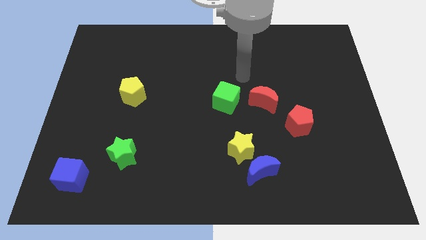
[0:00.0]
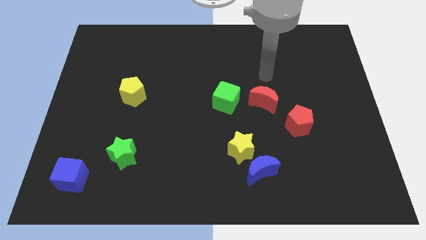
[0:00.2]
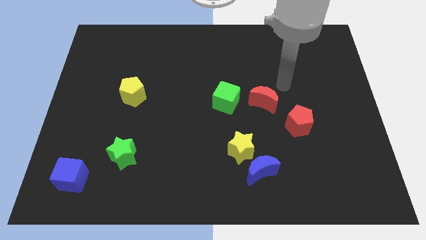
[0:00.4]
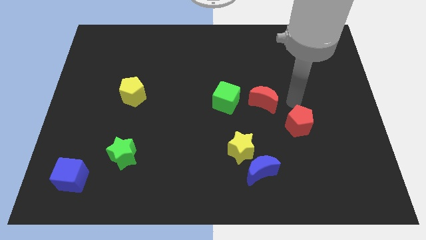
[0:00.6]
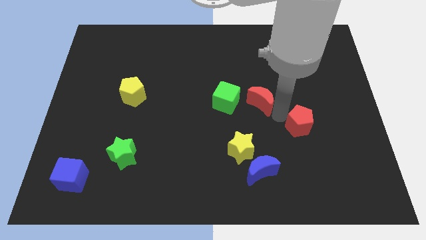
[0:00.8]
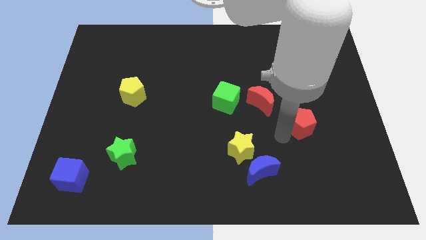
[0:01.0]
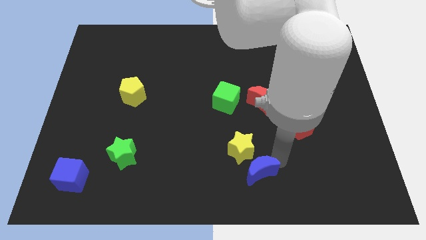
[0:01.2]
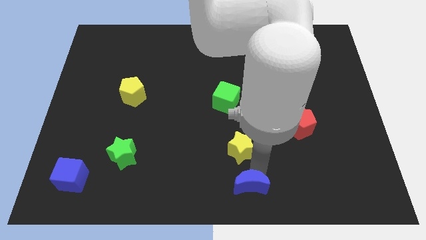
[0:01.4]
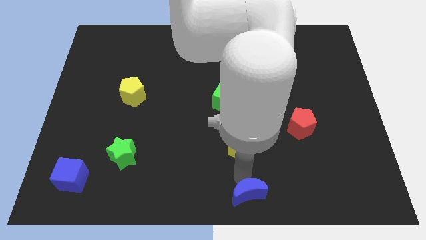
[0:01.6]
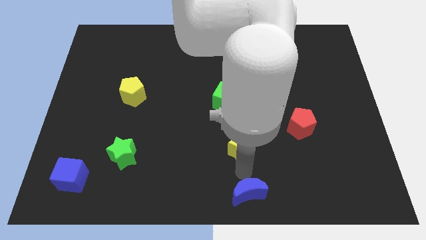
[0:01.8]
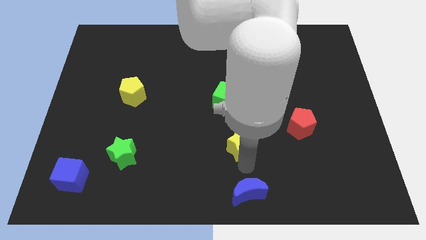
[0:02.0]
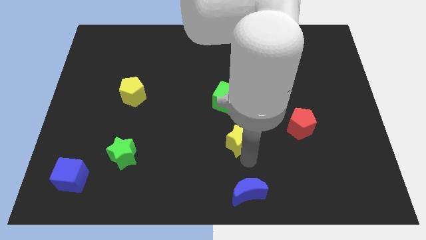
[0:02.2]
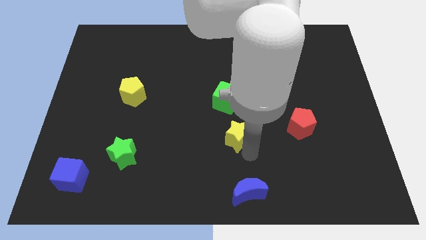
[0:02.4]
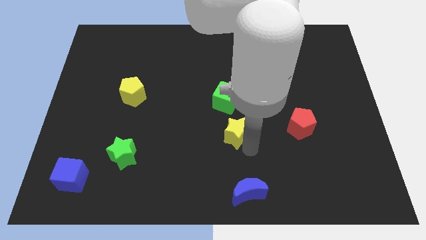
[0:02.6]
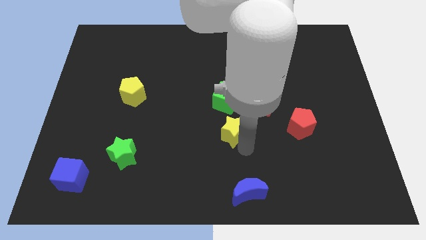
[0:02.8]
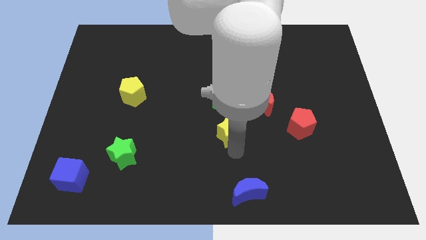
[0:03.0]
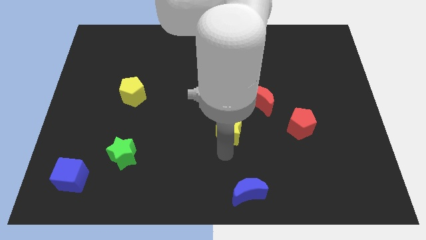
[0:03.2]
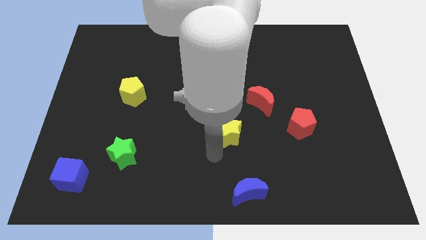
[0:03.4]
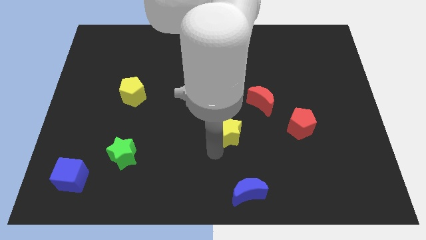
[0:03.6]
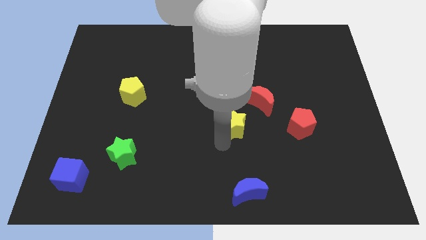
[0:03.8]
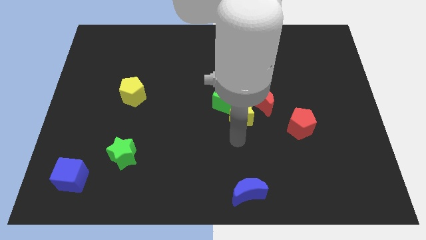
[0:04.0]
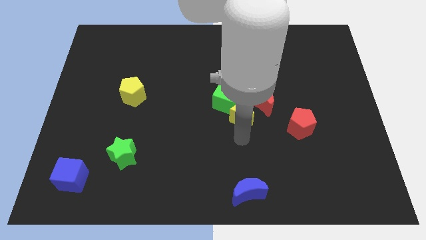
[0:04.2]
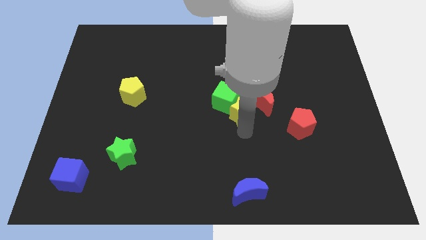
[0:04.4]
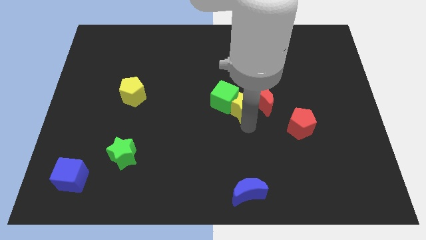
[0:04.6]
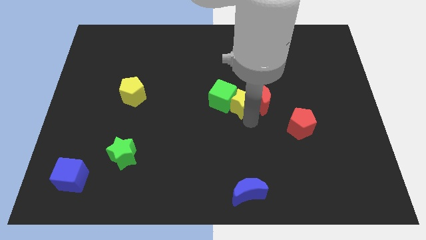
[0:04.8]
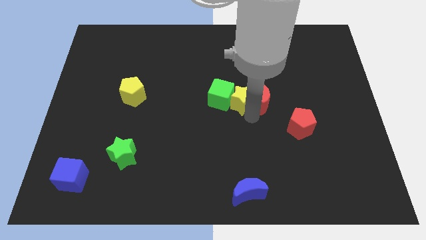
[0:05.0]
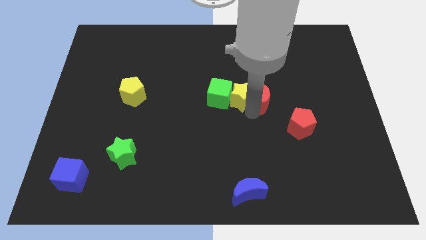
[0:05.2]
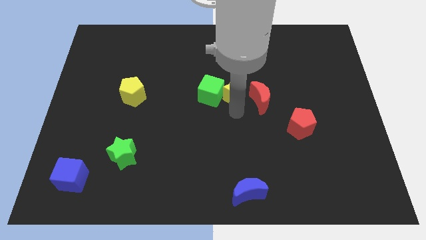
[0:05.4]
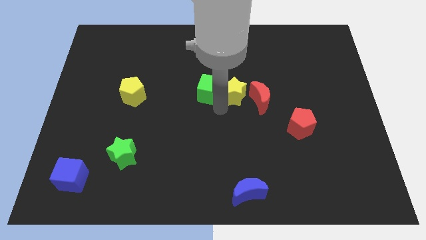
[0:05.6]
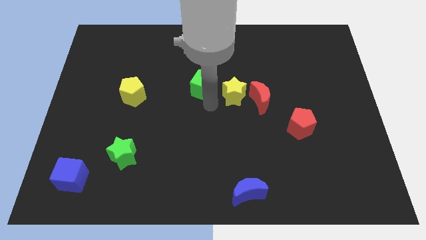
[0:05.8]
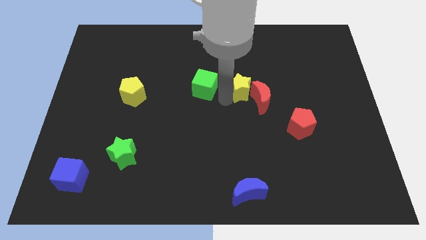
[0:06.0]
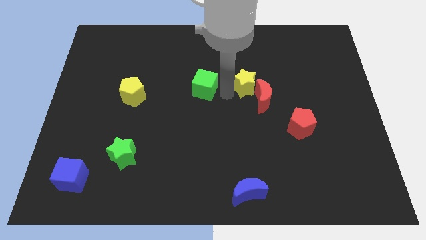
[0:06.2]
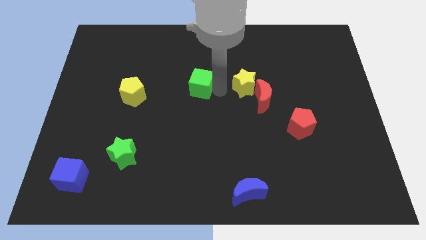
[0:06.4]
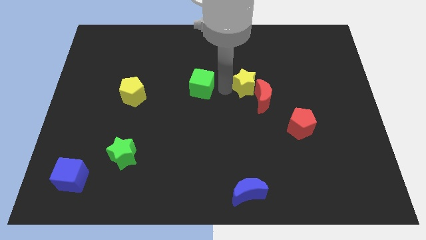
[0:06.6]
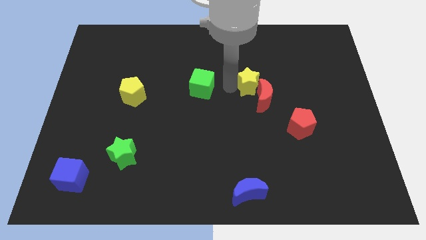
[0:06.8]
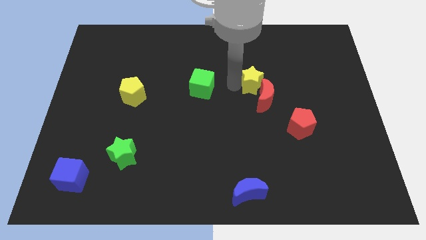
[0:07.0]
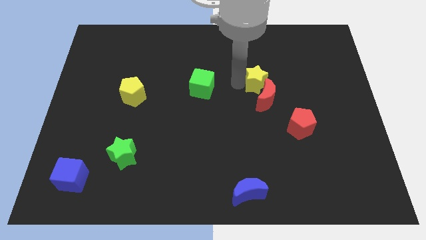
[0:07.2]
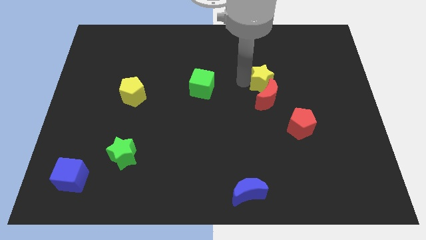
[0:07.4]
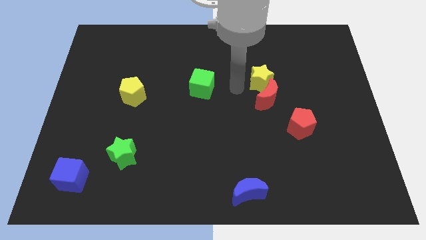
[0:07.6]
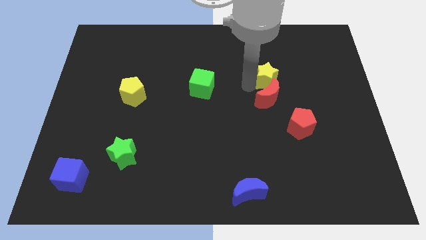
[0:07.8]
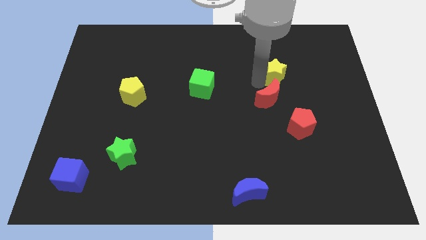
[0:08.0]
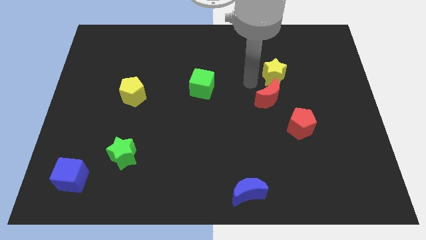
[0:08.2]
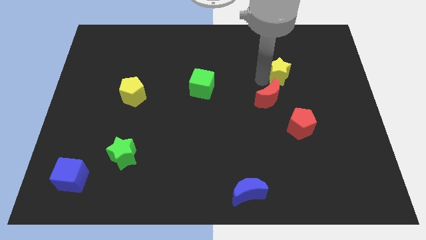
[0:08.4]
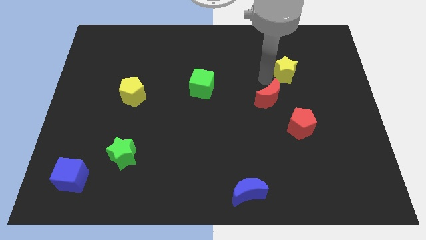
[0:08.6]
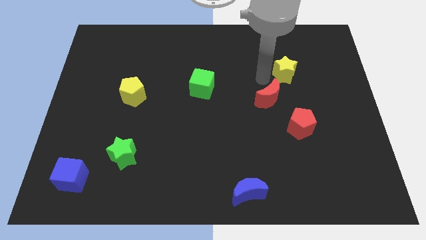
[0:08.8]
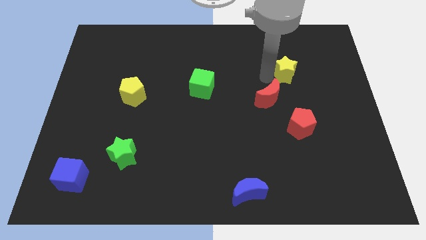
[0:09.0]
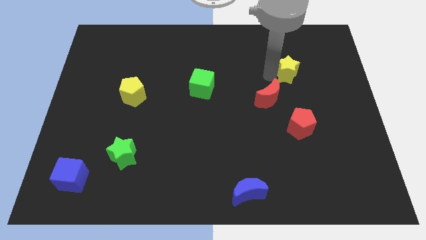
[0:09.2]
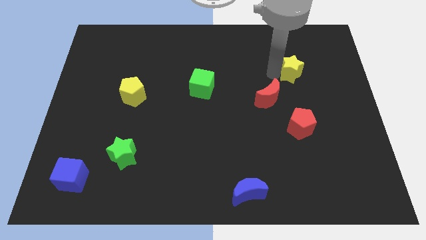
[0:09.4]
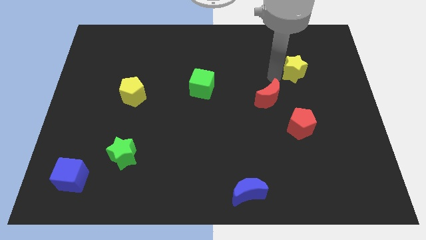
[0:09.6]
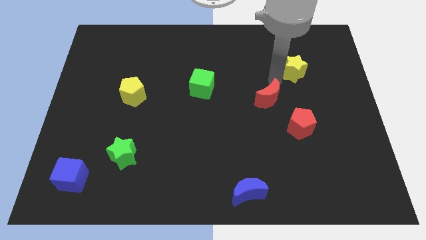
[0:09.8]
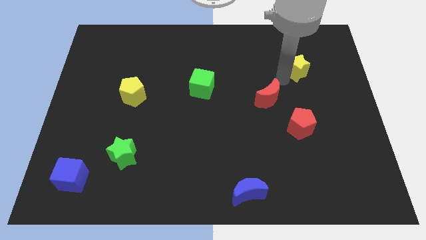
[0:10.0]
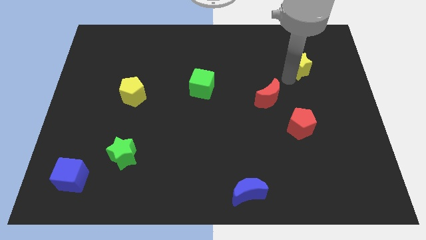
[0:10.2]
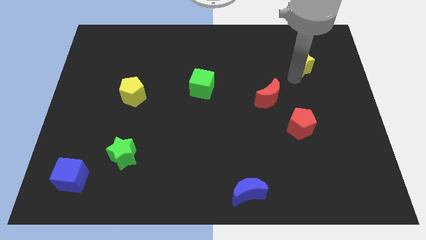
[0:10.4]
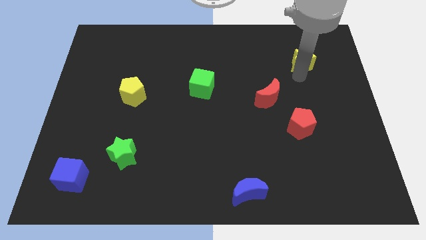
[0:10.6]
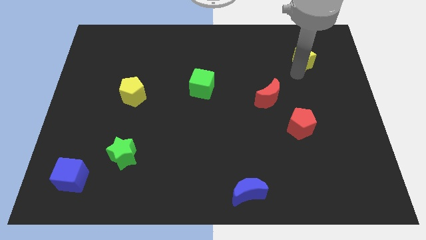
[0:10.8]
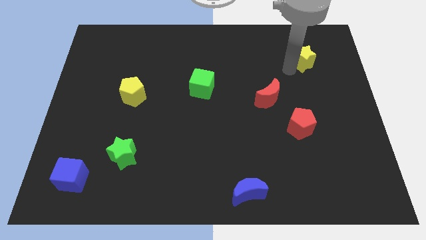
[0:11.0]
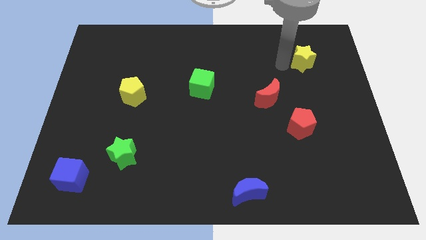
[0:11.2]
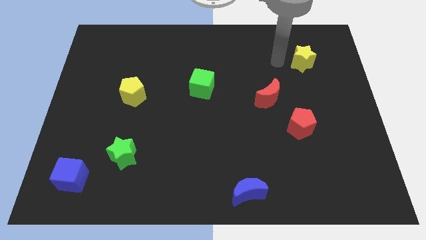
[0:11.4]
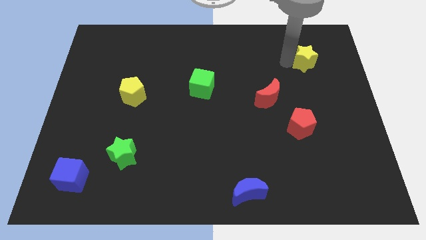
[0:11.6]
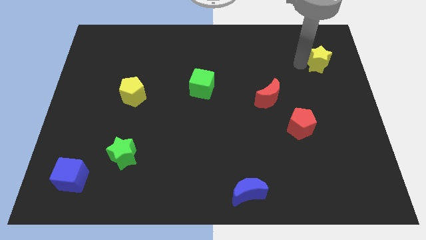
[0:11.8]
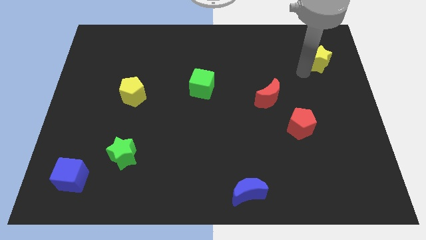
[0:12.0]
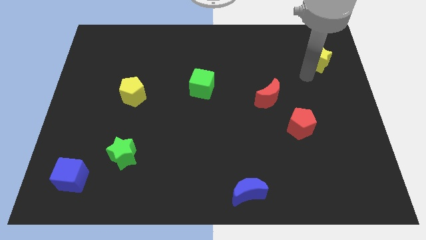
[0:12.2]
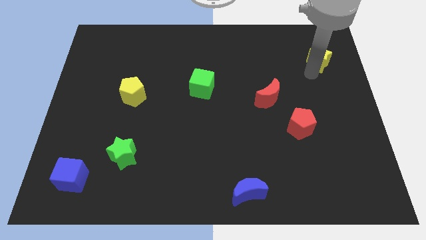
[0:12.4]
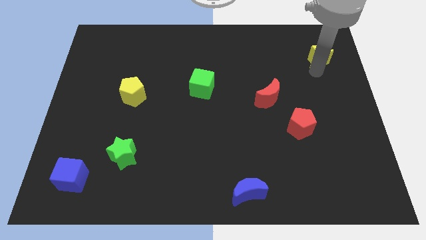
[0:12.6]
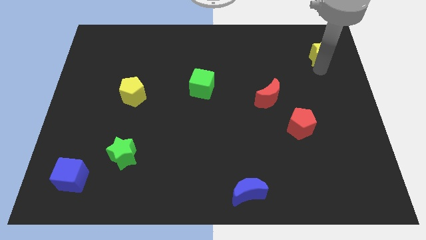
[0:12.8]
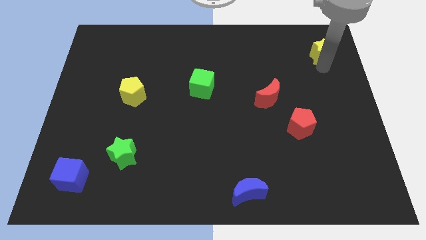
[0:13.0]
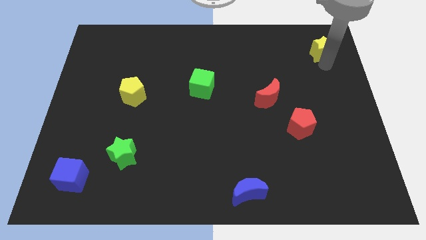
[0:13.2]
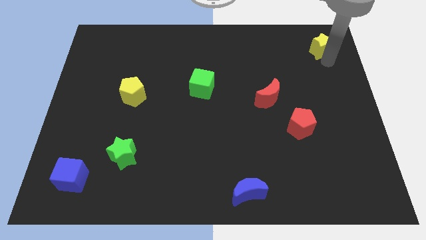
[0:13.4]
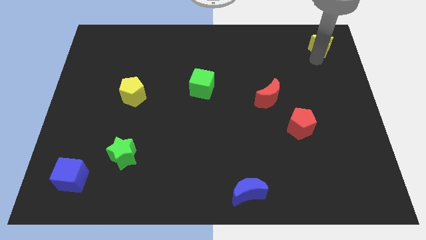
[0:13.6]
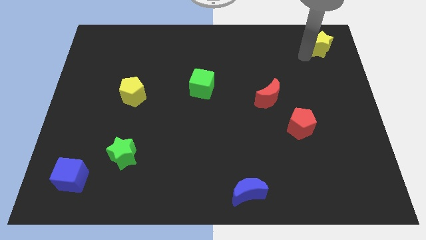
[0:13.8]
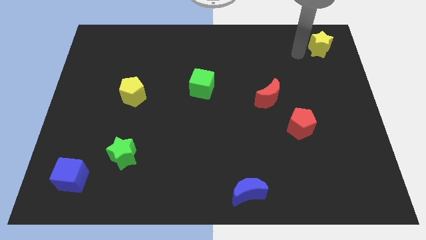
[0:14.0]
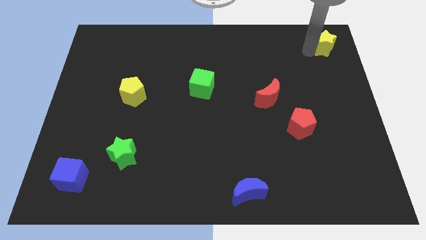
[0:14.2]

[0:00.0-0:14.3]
slide the yellow star to the upper right corner
